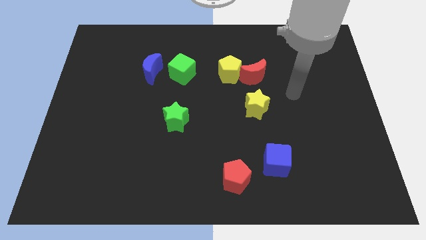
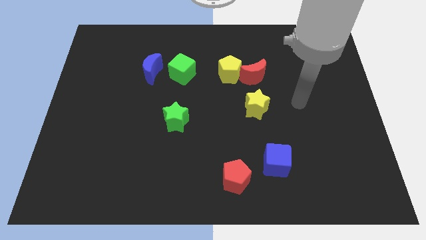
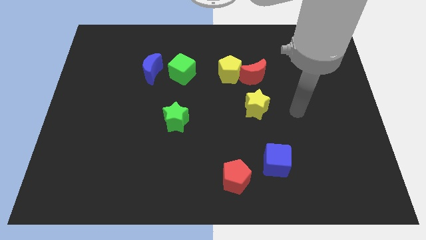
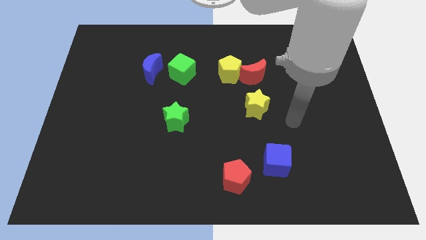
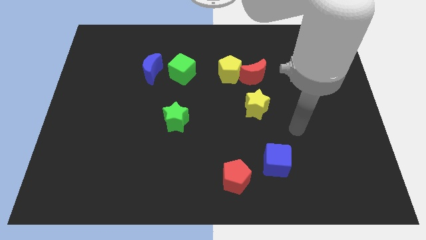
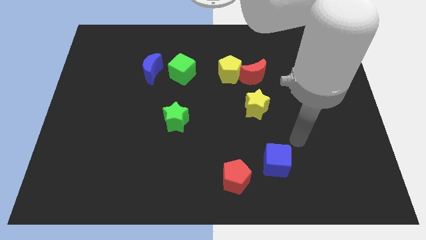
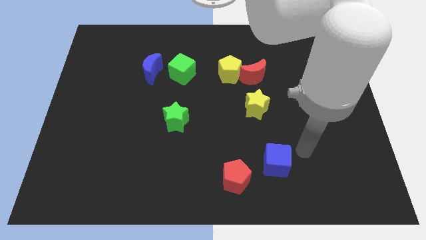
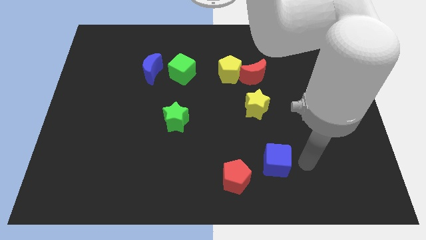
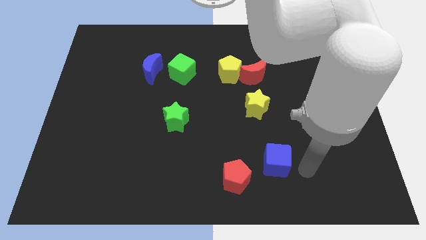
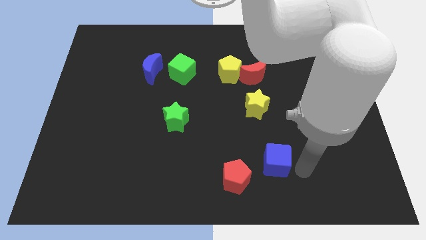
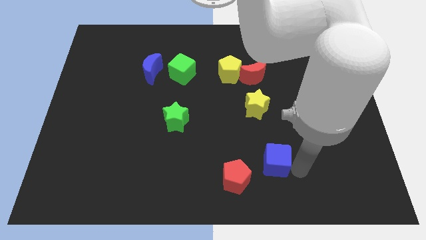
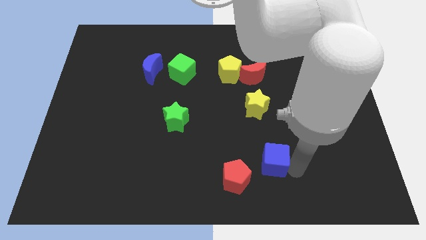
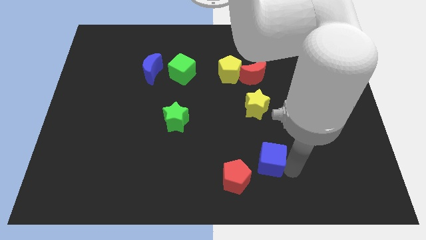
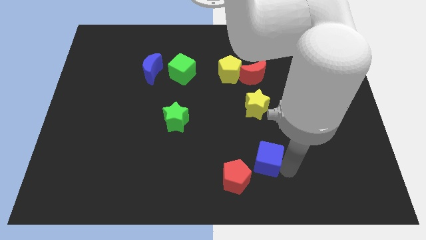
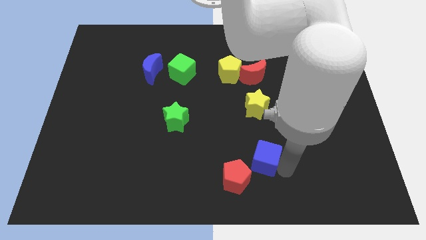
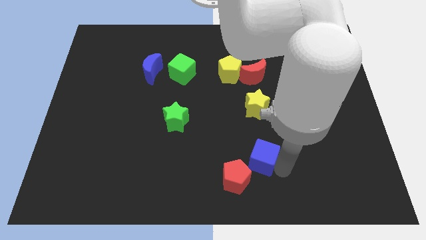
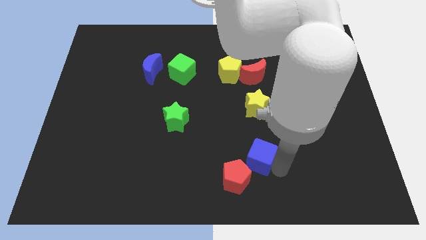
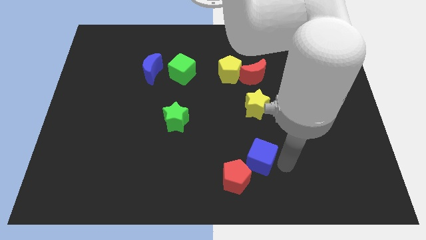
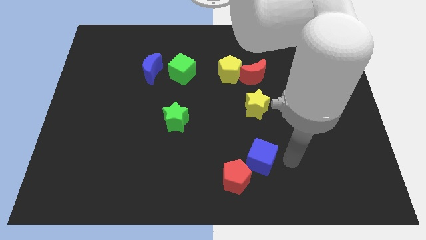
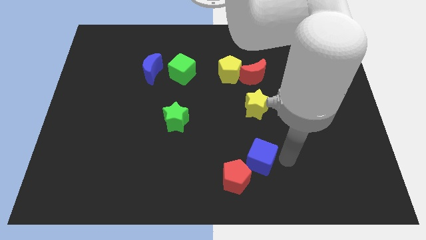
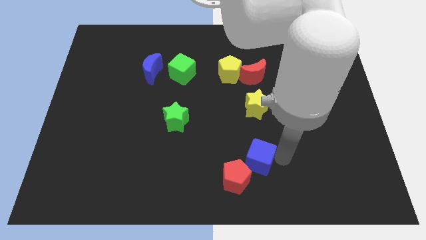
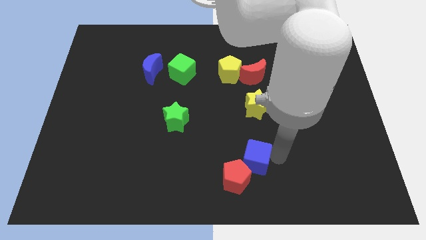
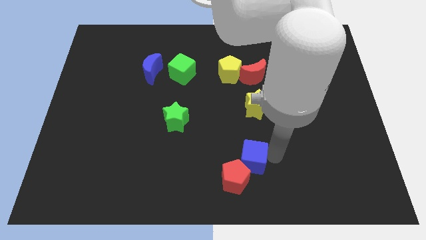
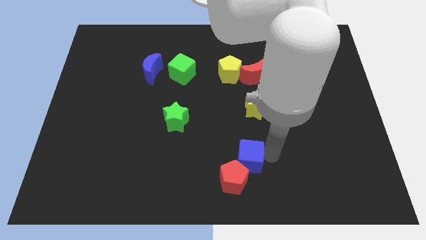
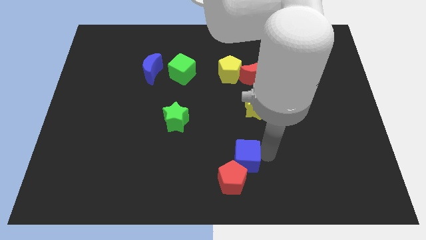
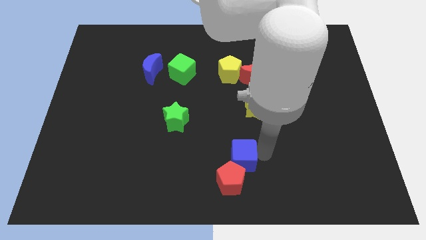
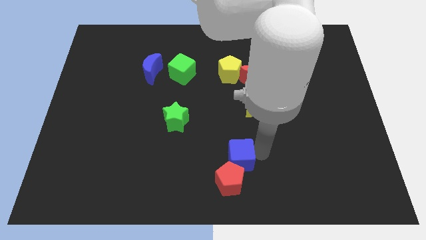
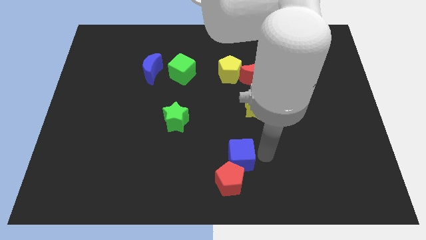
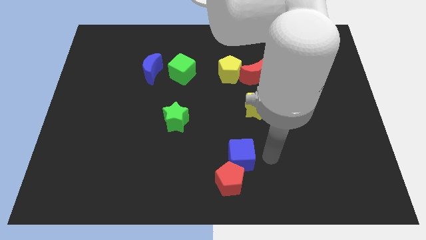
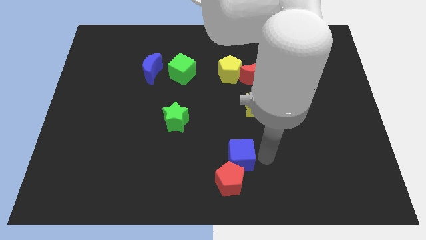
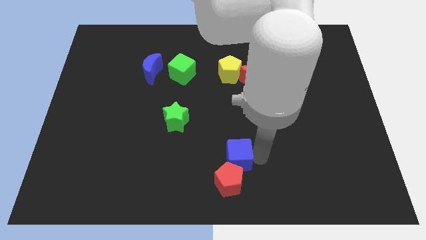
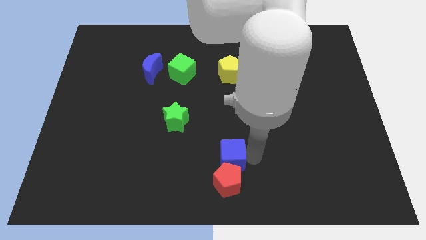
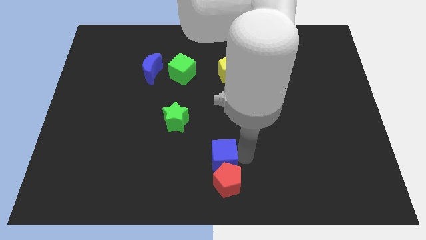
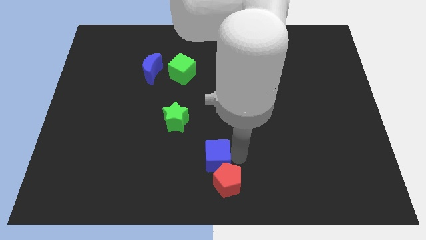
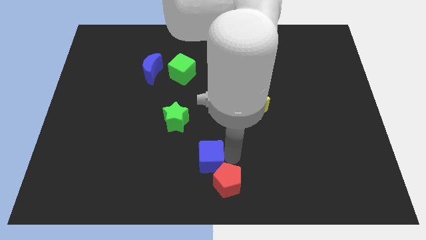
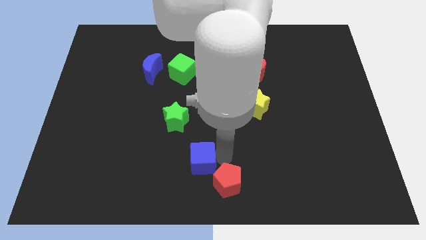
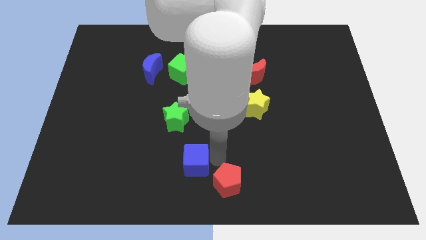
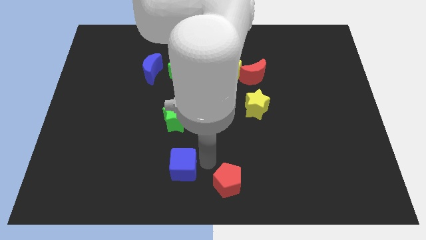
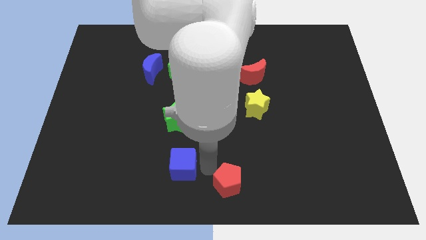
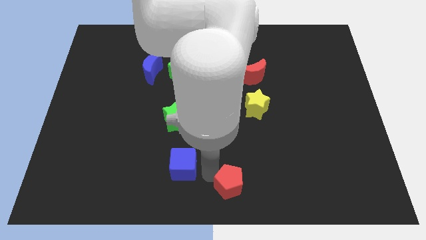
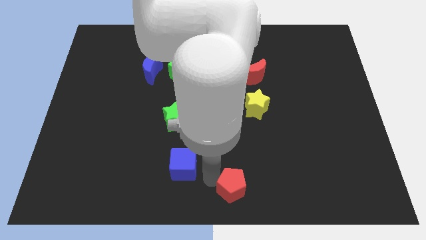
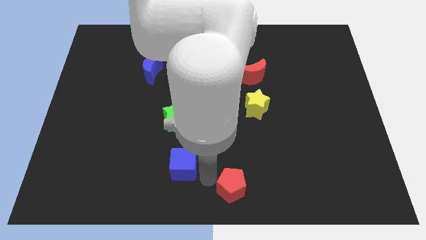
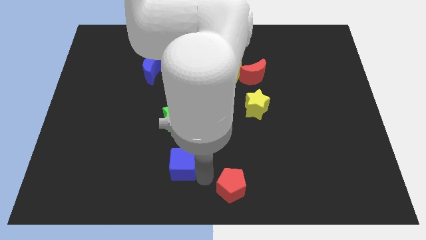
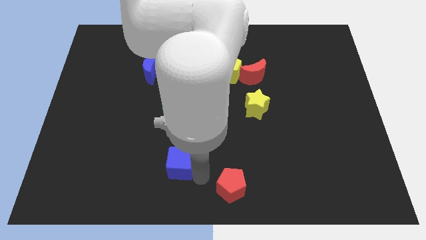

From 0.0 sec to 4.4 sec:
slide the blue cube to the left

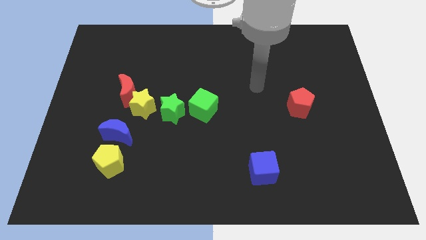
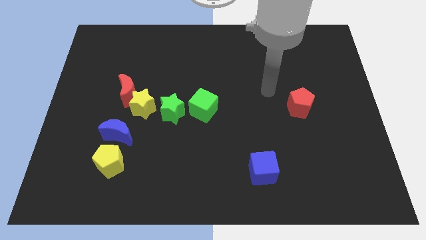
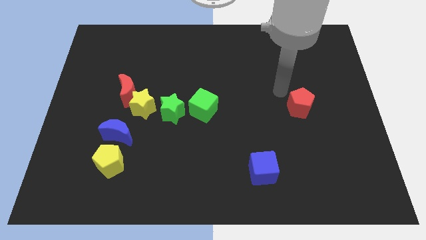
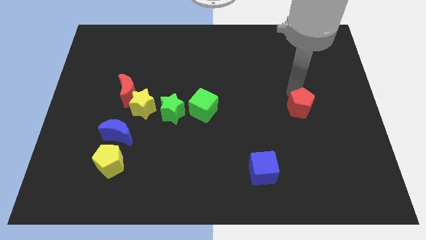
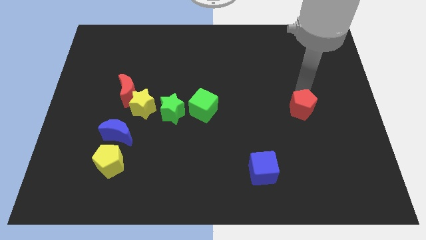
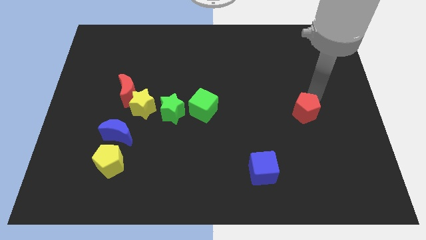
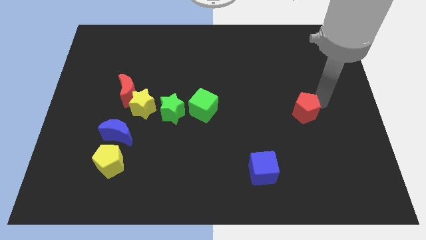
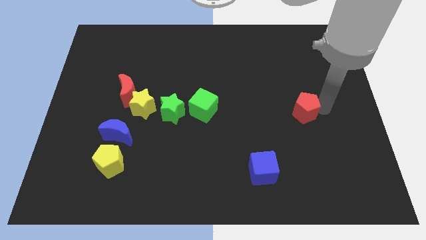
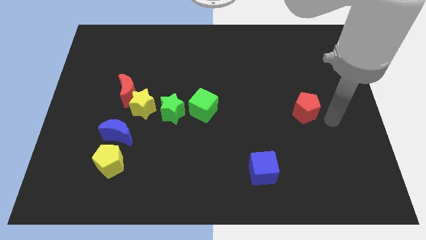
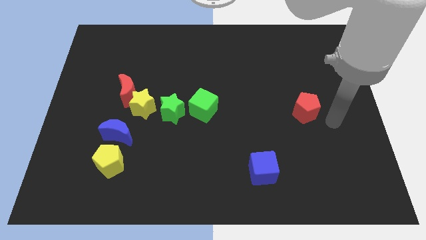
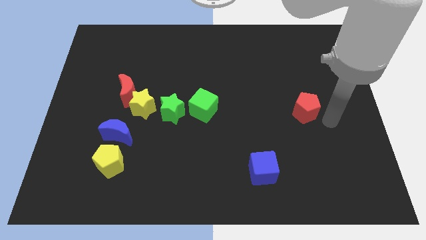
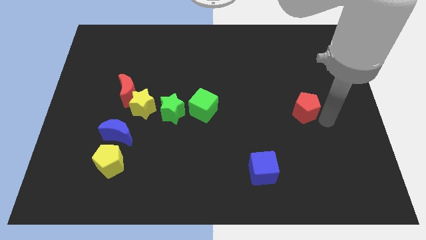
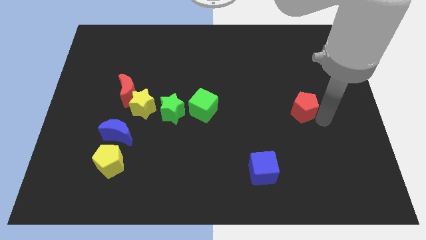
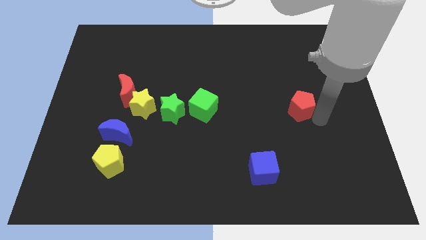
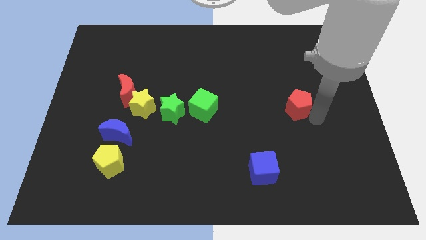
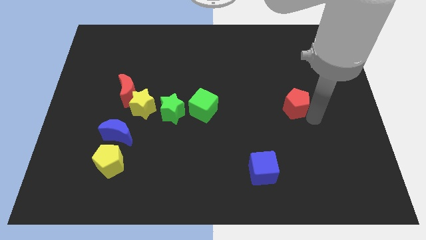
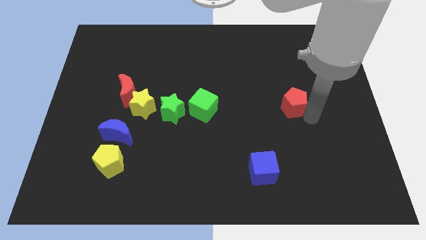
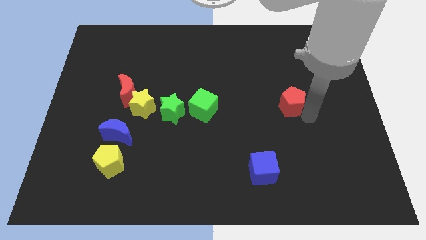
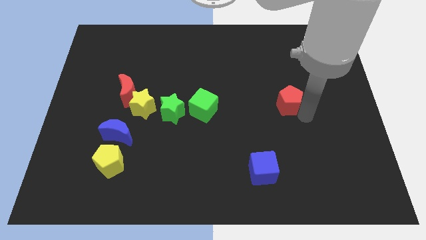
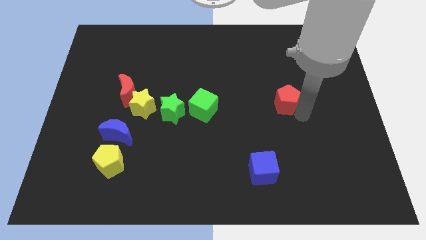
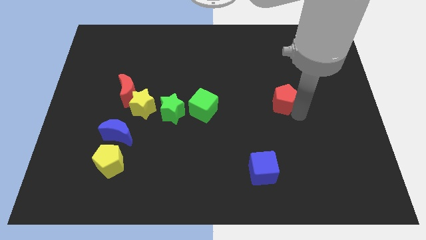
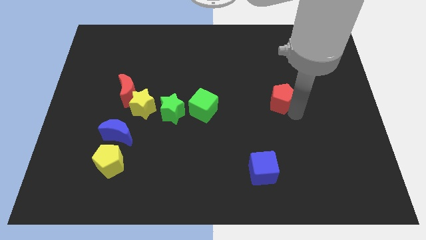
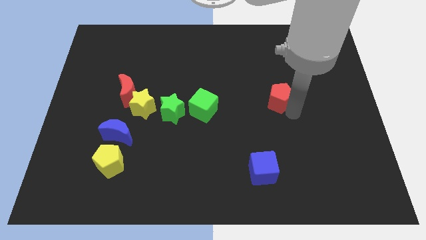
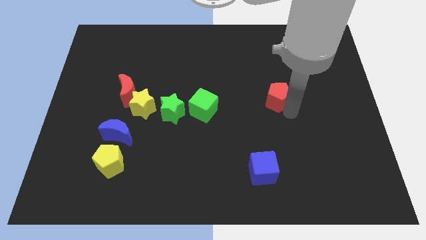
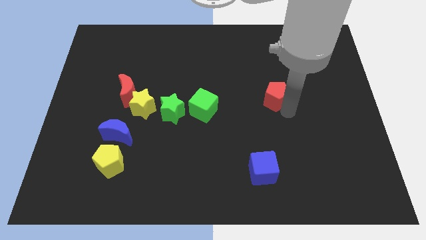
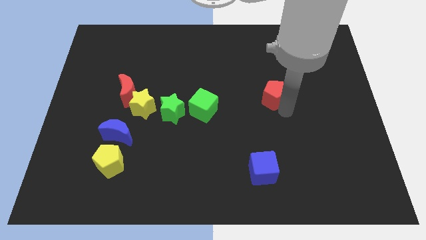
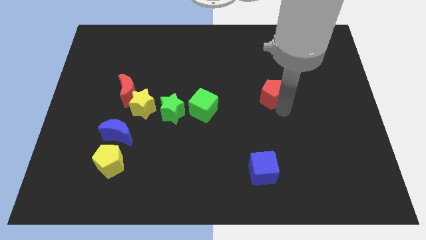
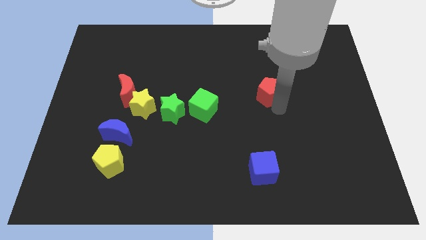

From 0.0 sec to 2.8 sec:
slightly move the red pentagon diagonally upwards and to the left

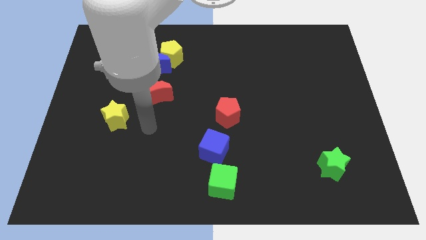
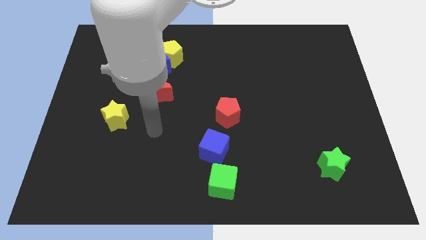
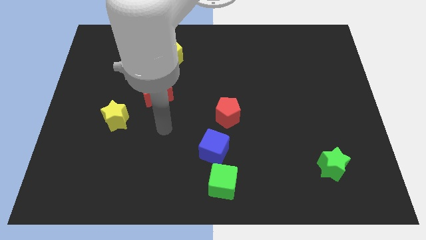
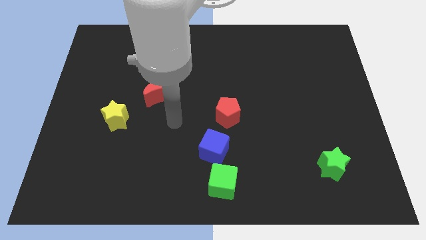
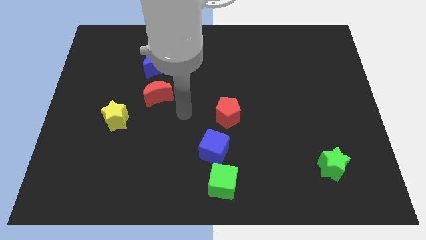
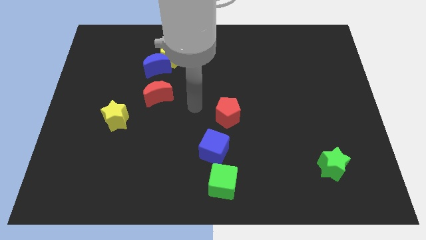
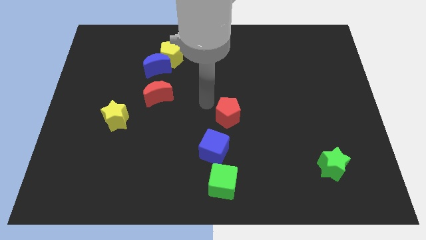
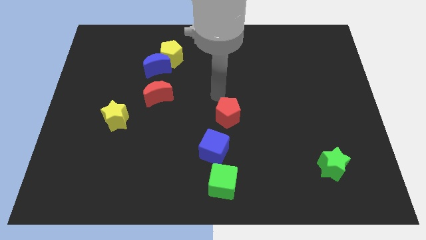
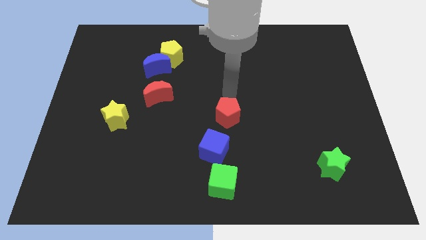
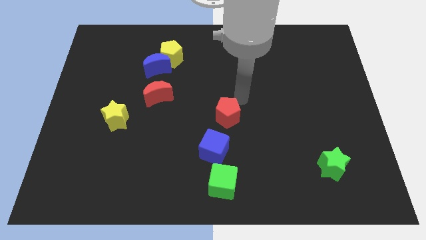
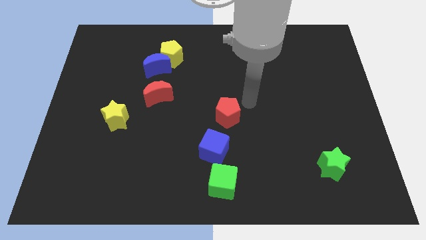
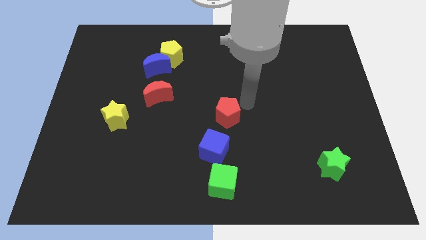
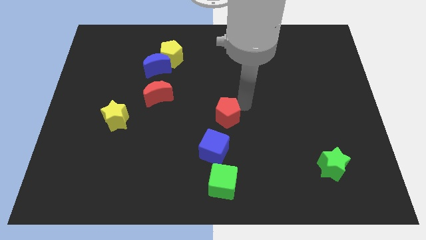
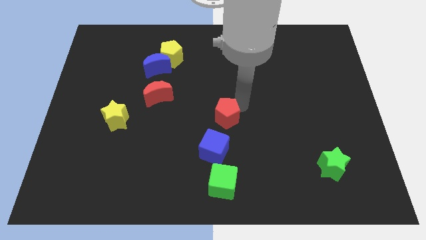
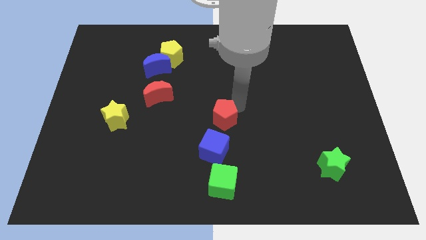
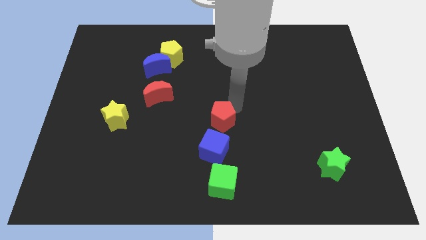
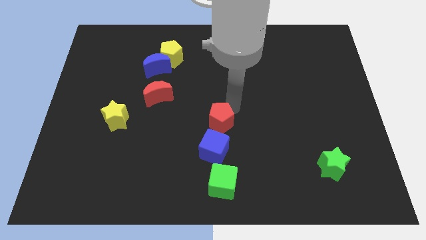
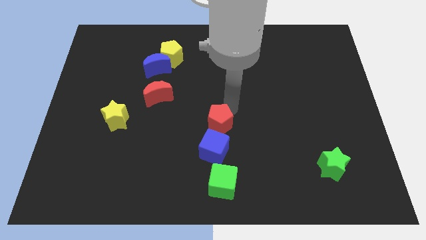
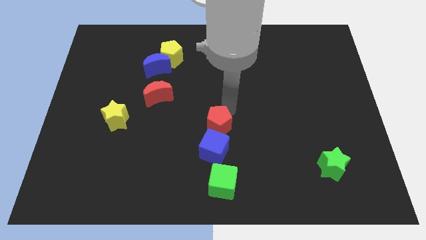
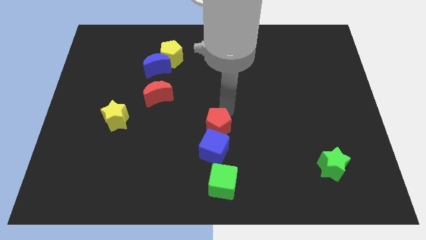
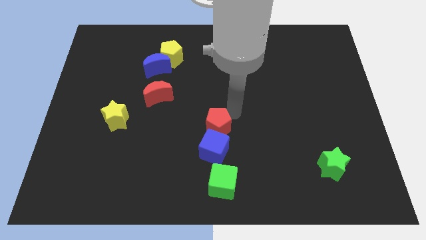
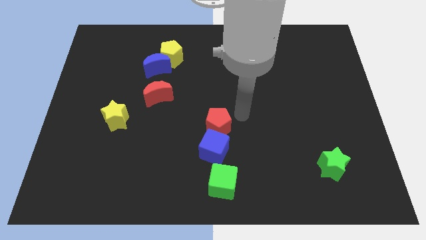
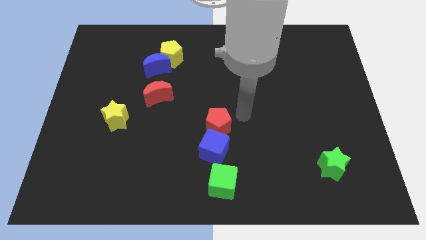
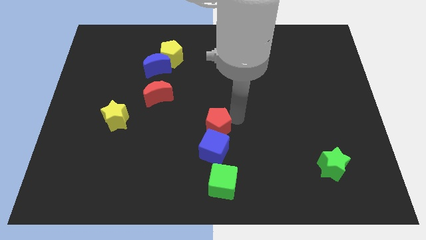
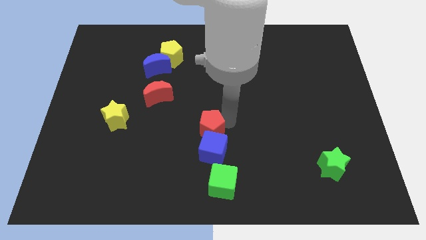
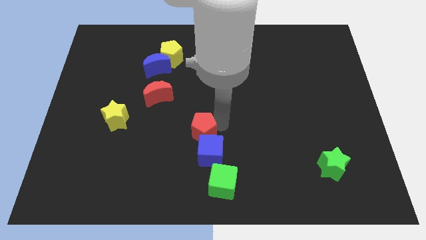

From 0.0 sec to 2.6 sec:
move the red pentagon down and to the left diagonally slightly
